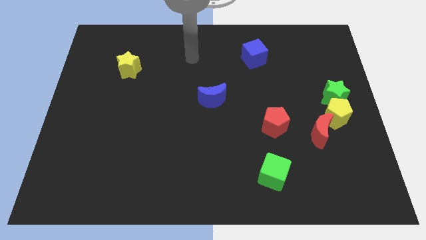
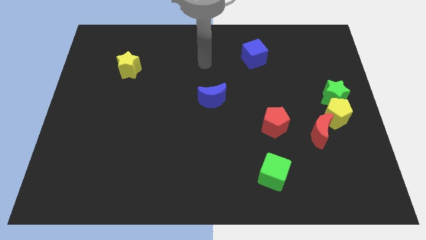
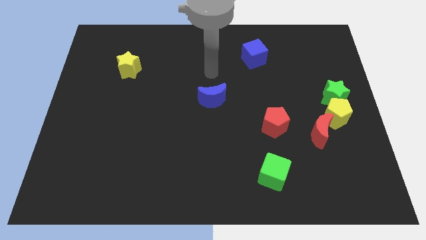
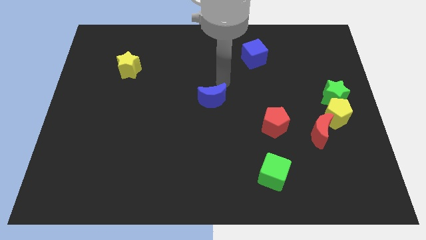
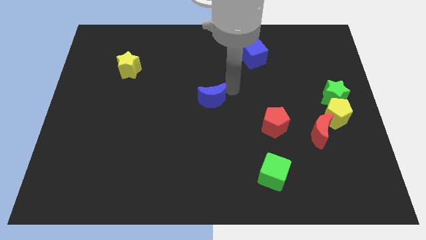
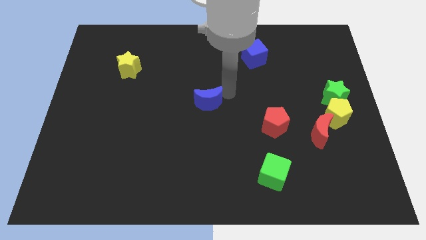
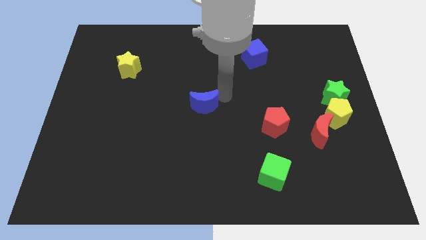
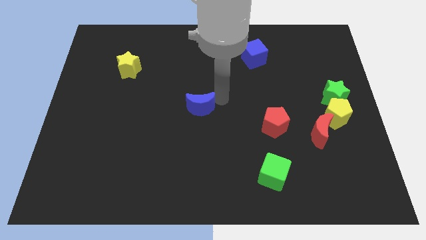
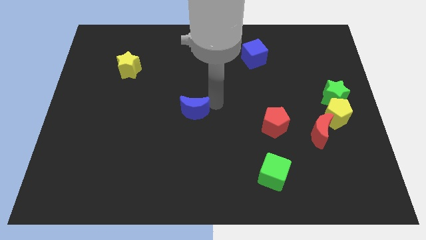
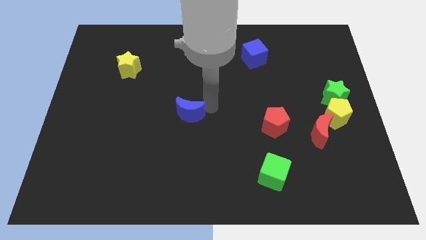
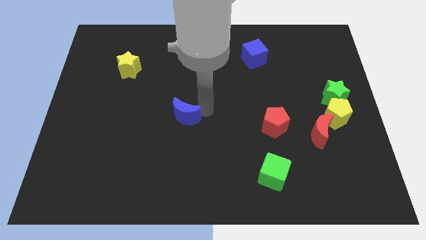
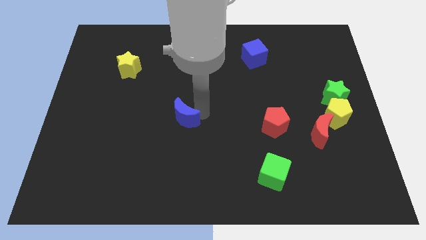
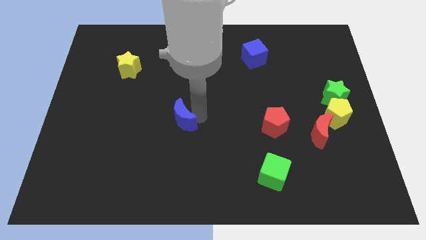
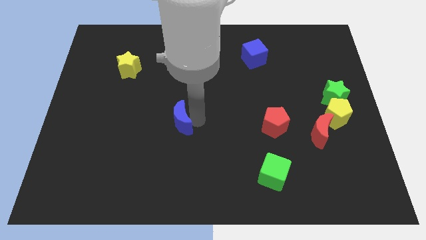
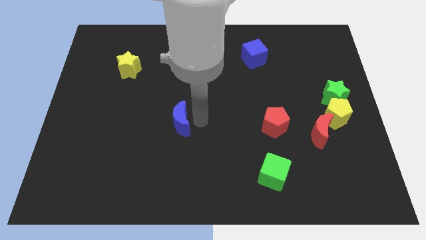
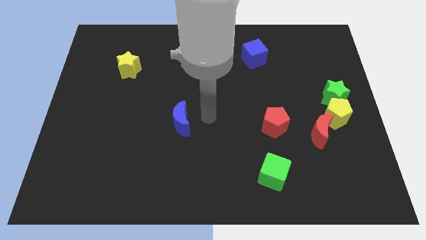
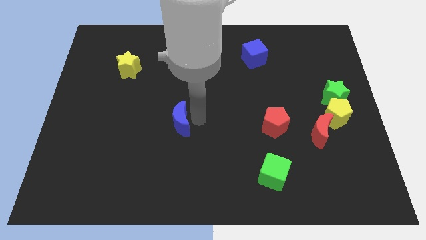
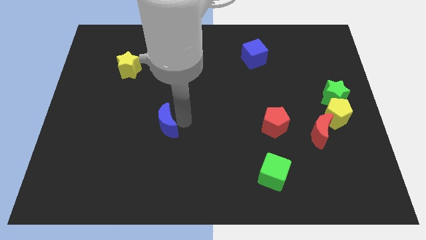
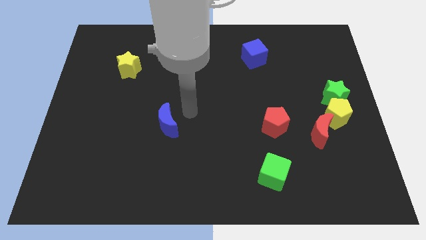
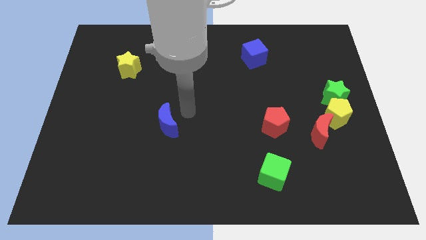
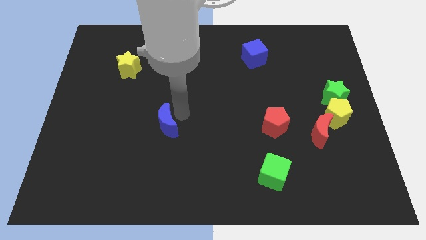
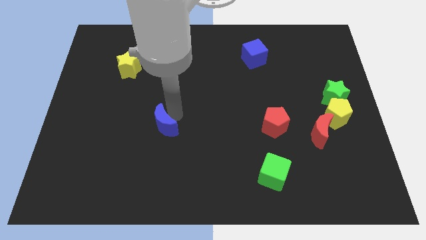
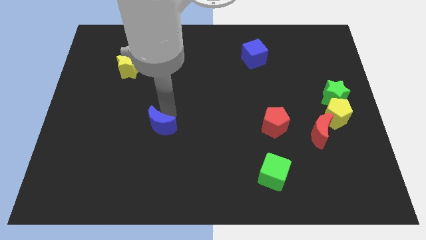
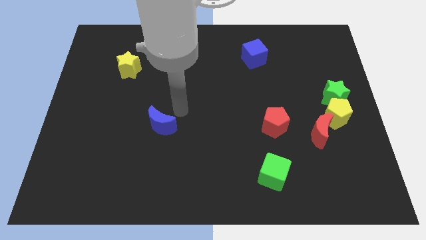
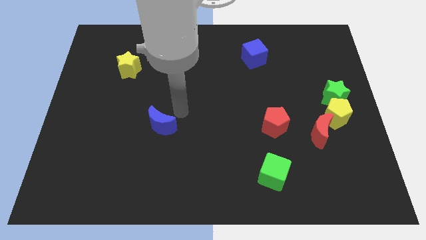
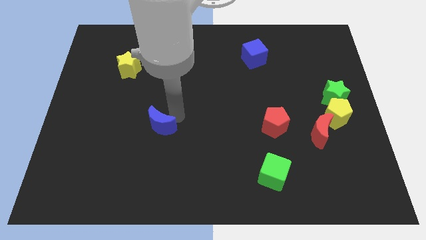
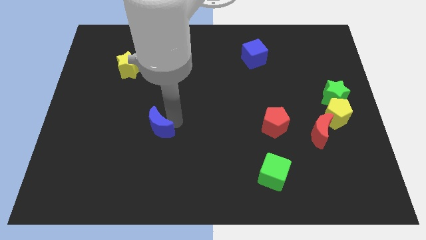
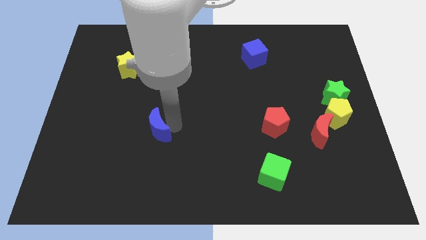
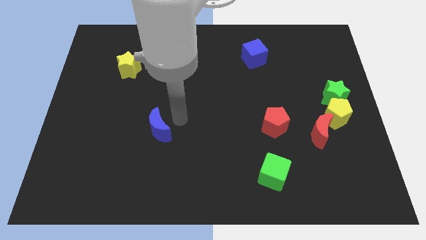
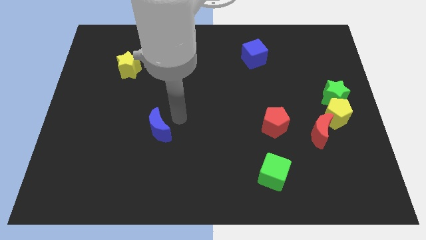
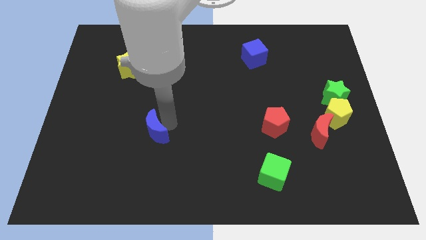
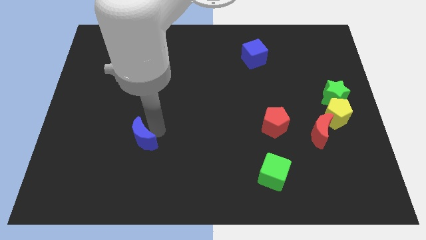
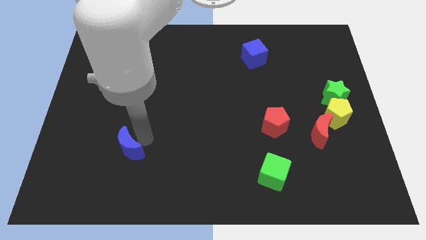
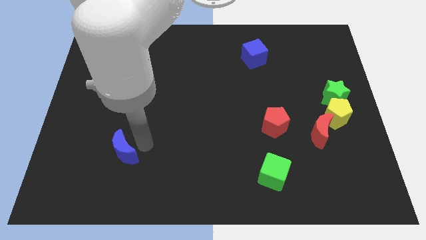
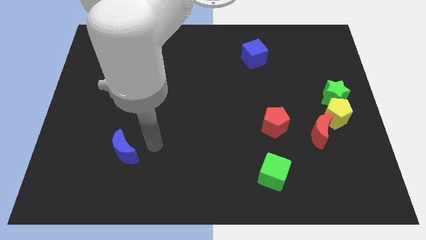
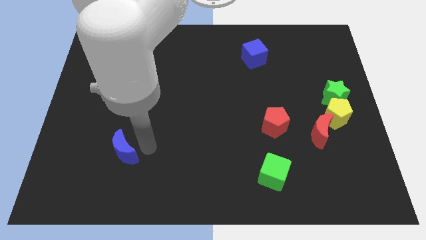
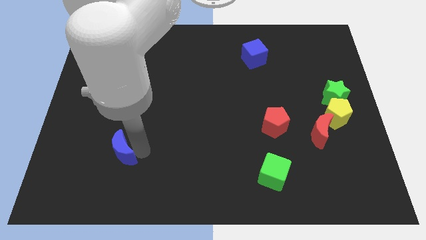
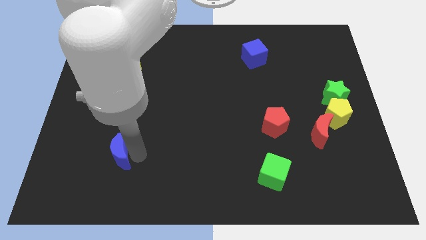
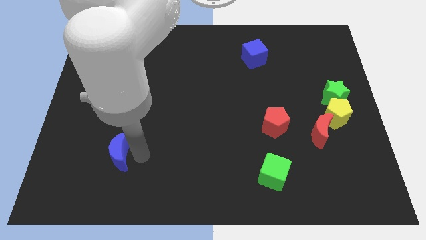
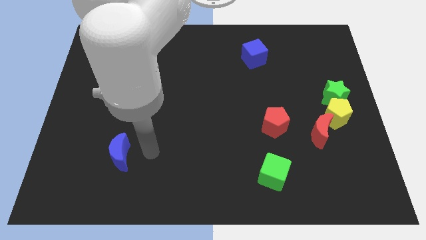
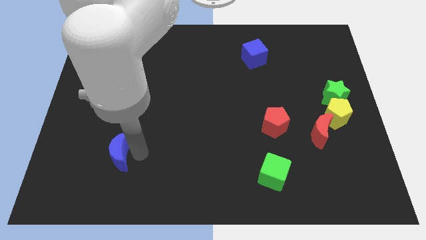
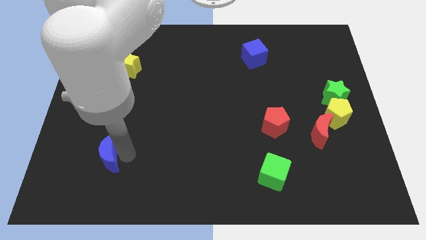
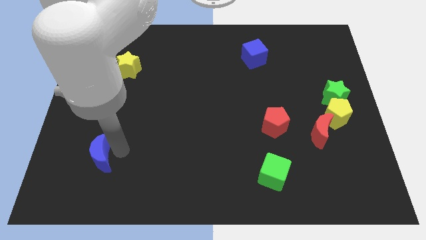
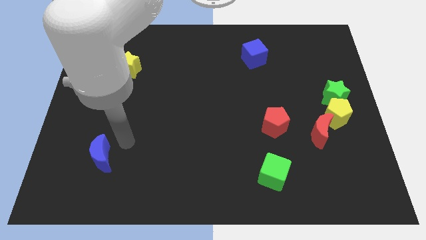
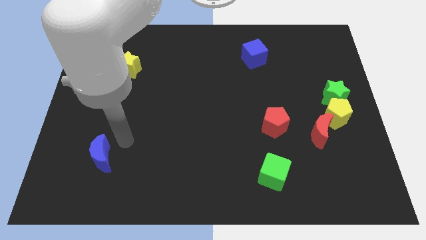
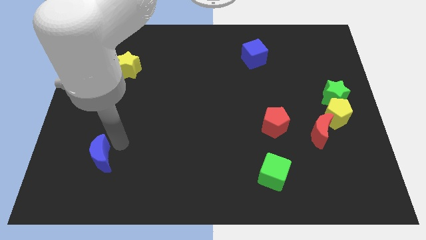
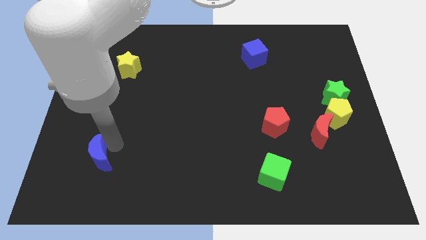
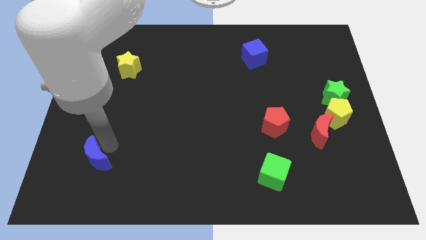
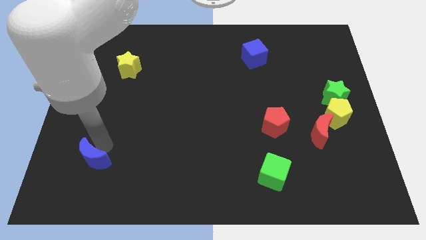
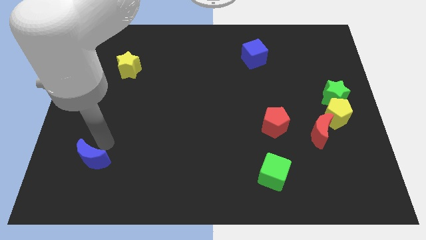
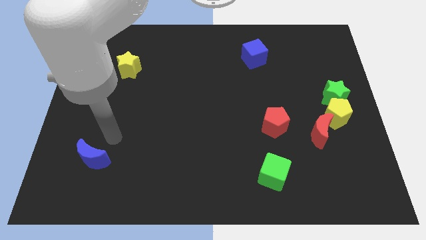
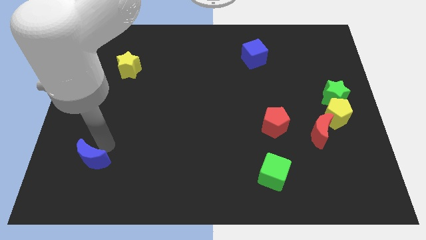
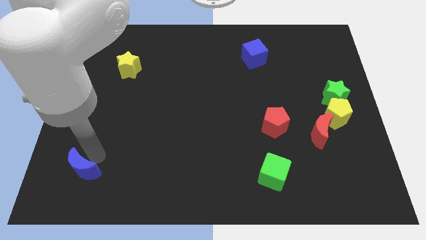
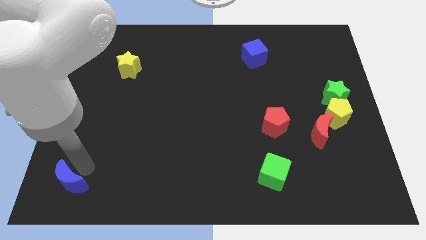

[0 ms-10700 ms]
put the blue moon to the bottom left corner

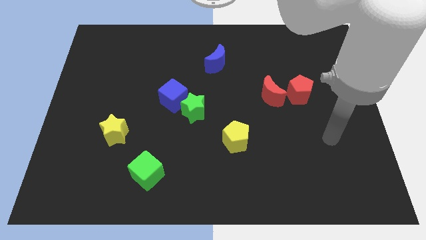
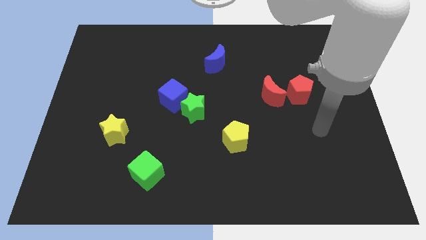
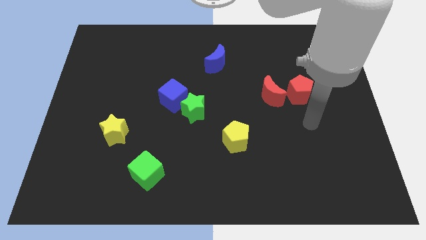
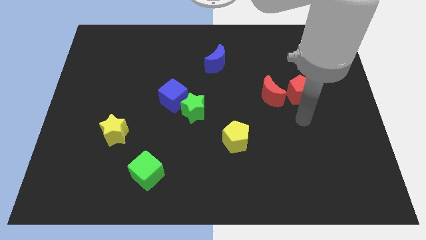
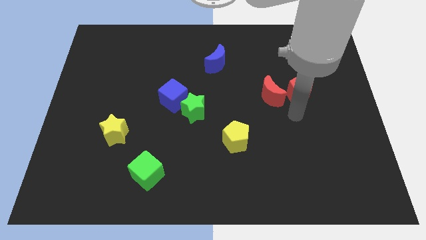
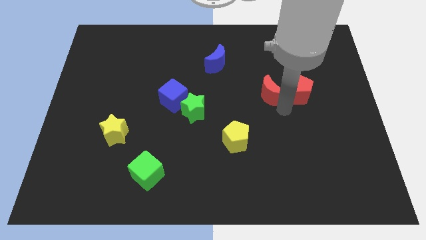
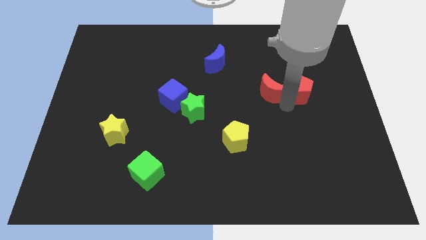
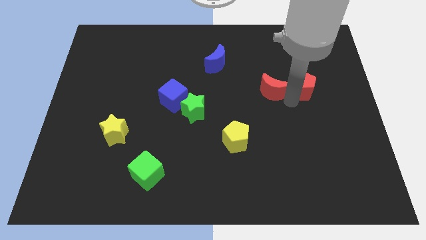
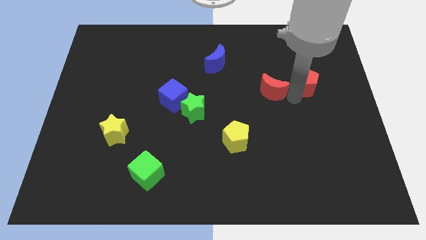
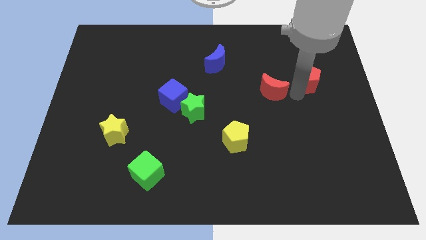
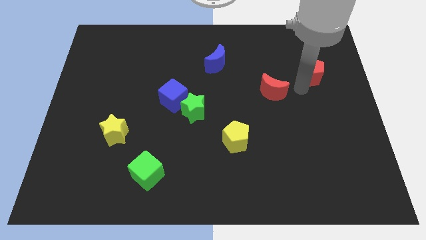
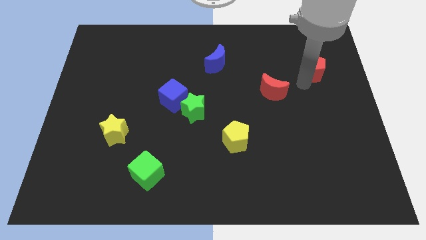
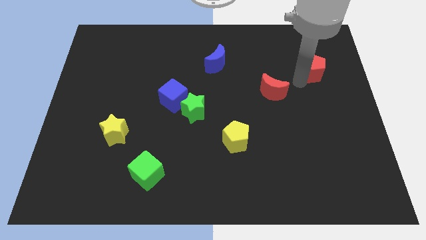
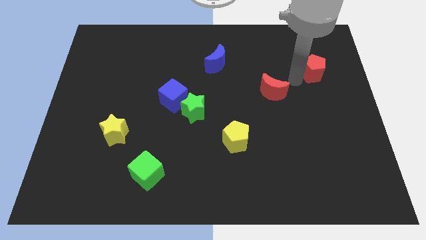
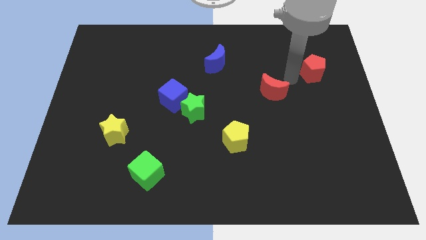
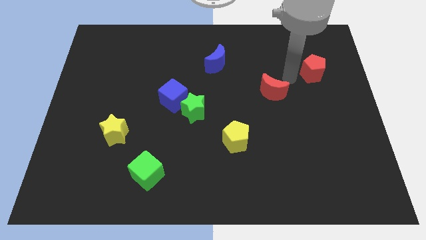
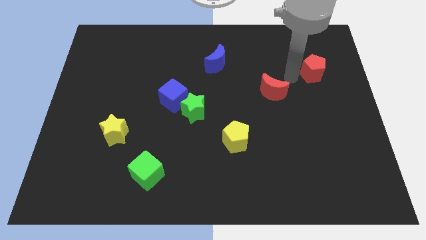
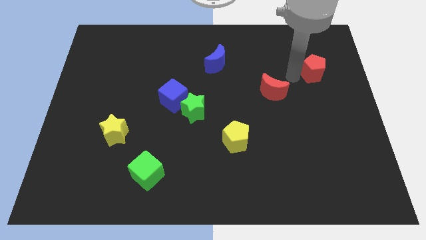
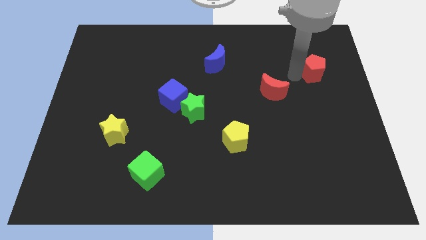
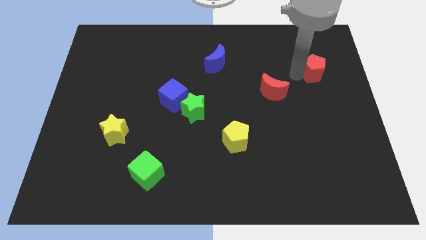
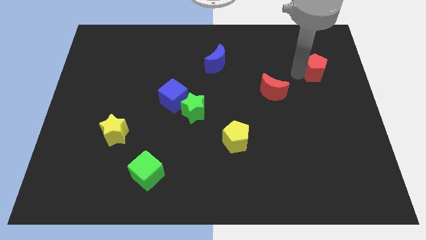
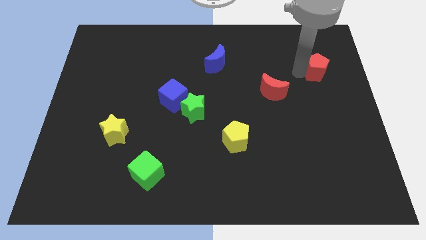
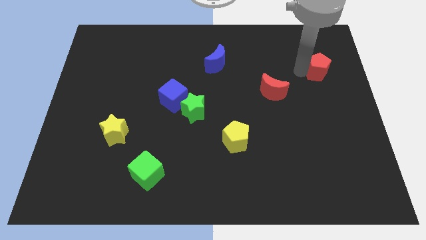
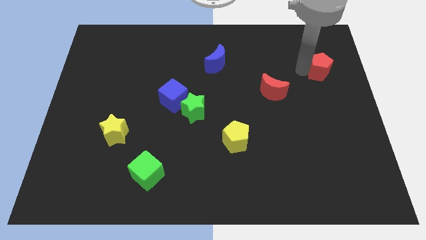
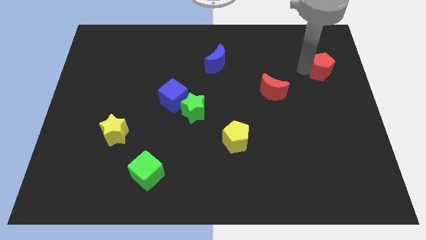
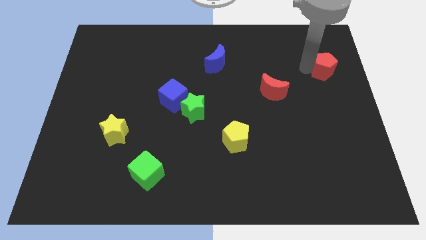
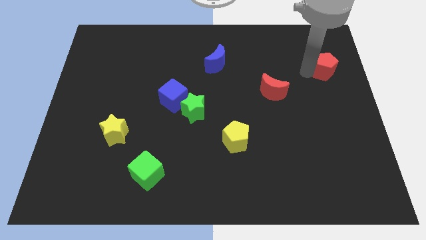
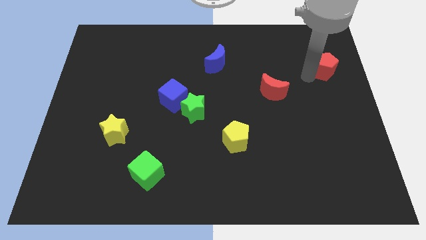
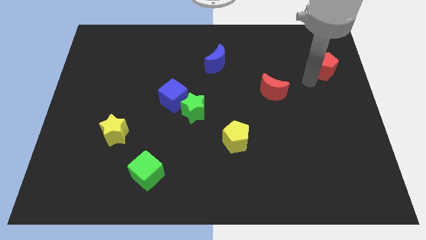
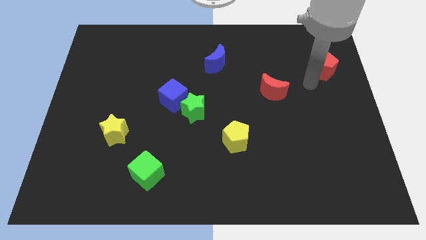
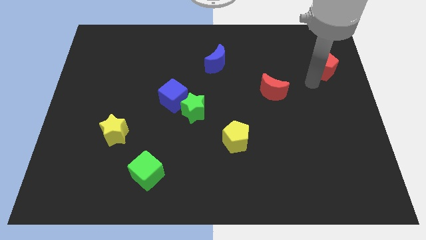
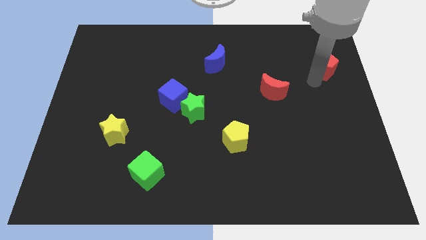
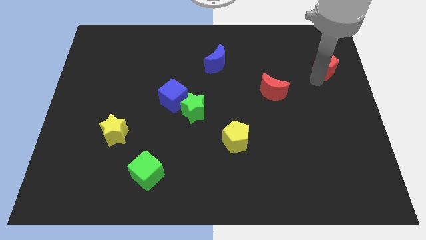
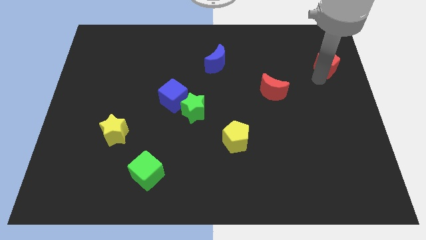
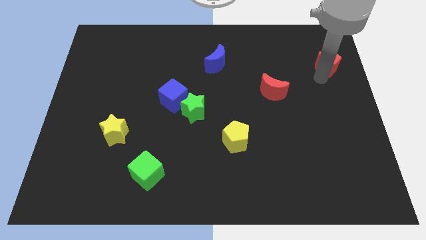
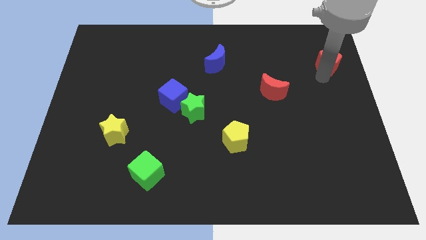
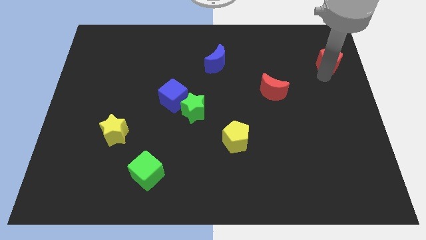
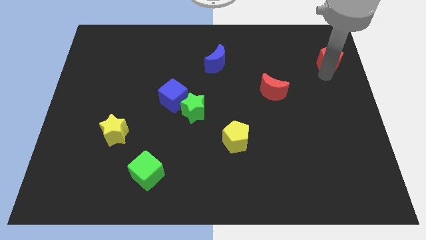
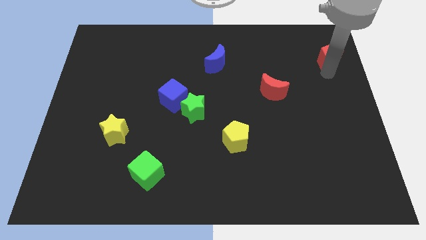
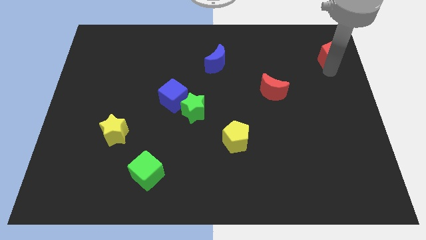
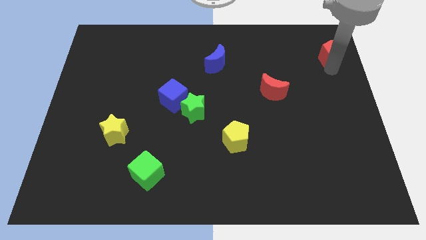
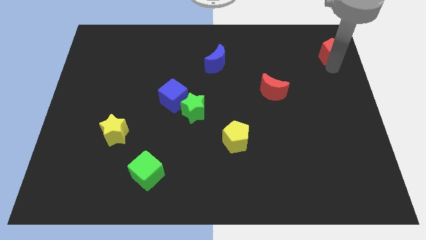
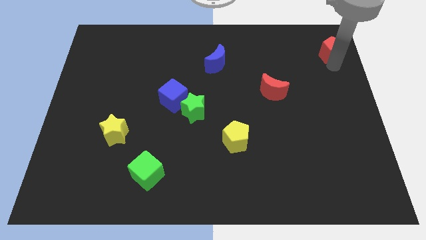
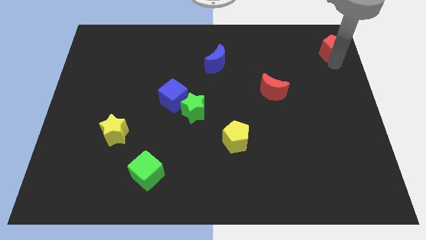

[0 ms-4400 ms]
slide the red pentagon to the top right
